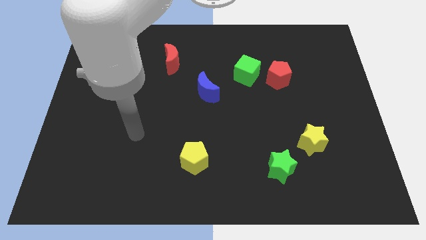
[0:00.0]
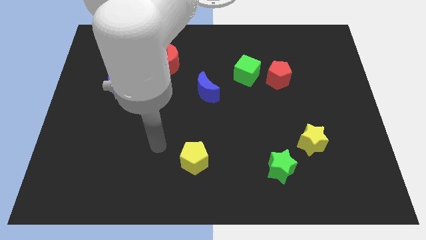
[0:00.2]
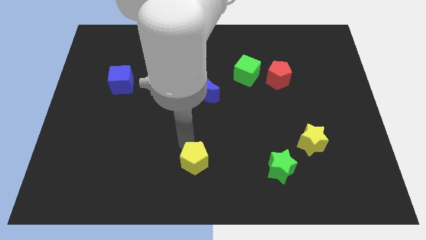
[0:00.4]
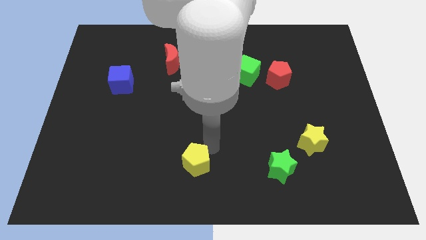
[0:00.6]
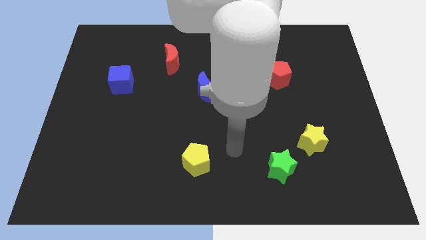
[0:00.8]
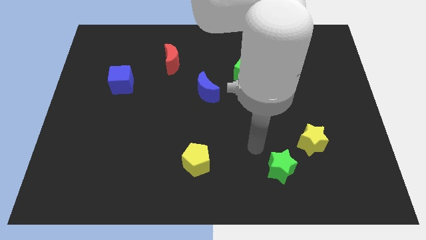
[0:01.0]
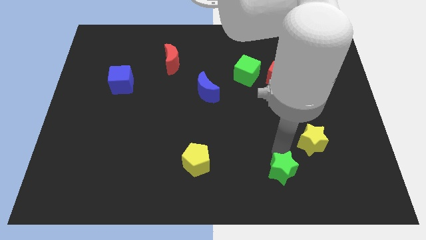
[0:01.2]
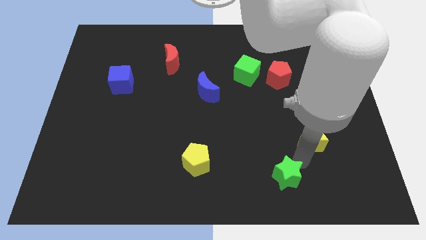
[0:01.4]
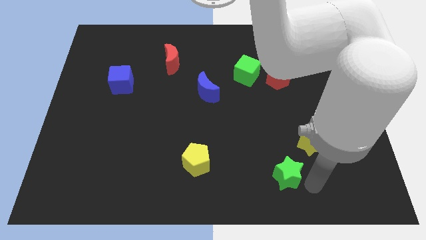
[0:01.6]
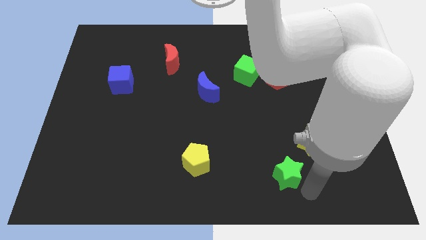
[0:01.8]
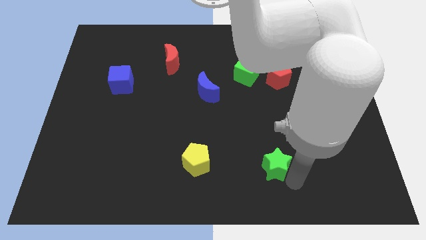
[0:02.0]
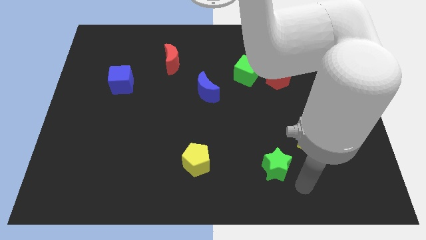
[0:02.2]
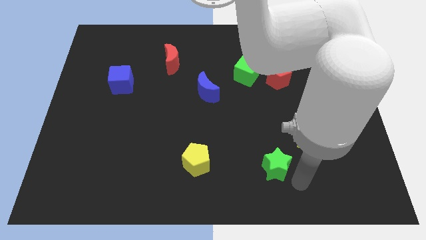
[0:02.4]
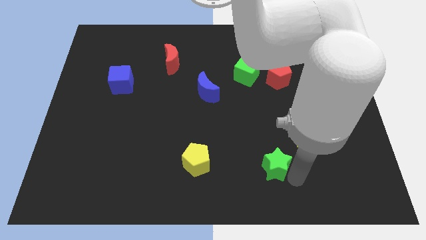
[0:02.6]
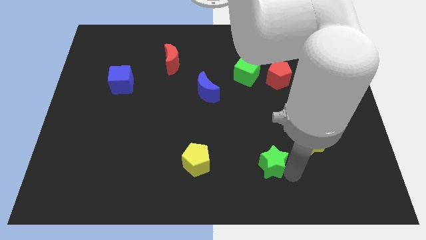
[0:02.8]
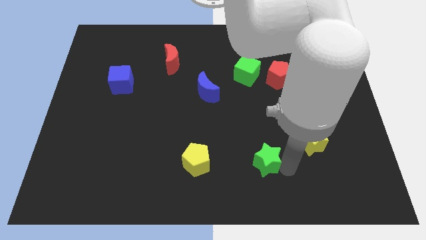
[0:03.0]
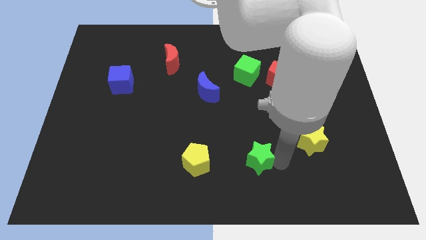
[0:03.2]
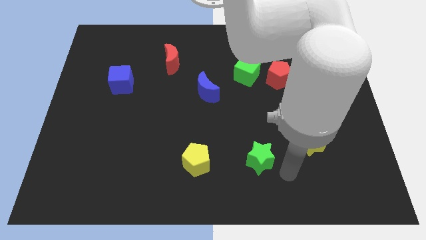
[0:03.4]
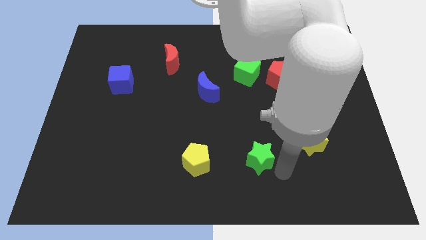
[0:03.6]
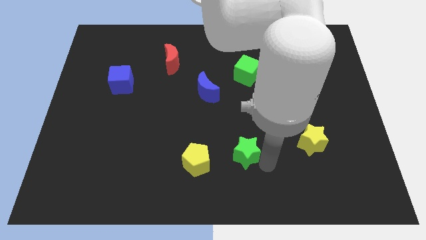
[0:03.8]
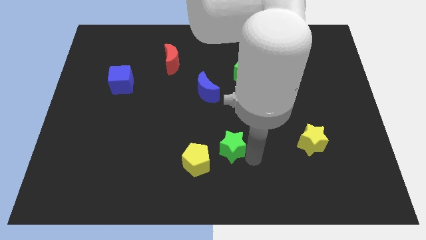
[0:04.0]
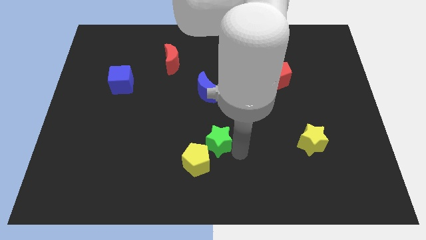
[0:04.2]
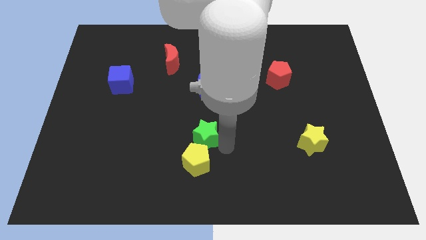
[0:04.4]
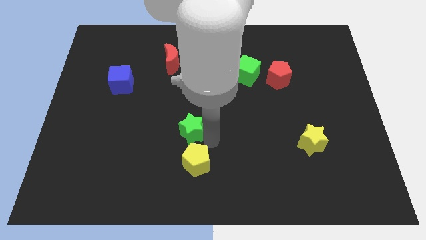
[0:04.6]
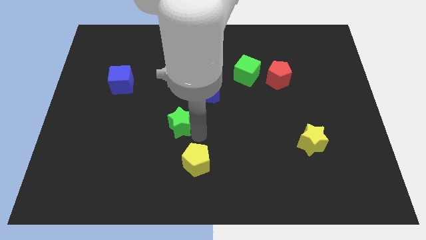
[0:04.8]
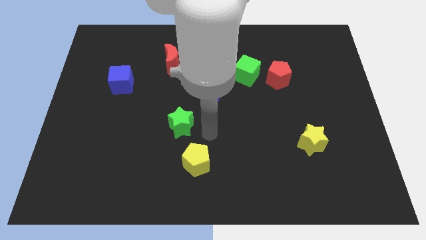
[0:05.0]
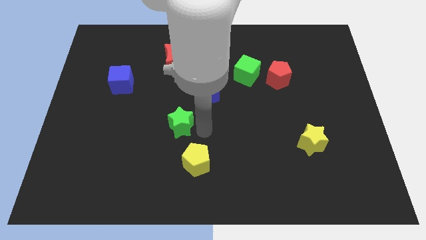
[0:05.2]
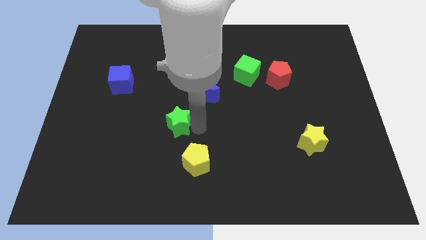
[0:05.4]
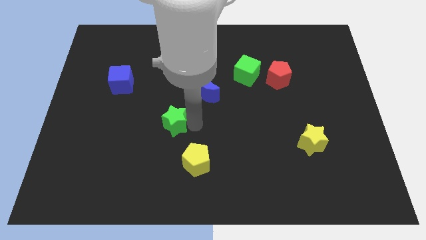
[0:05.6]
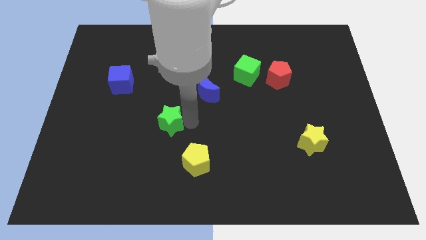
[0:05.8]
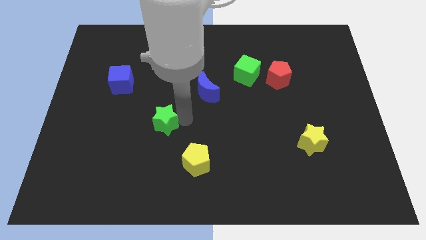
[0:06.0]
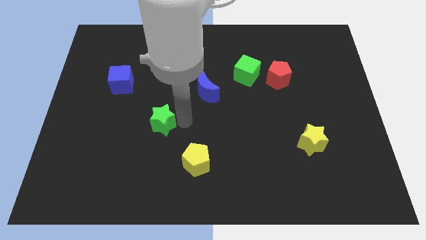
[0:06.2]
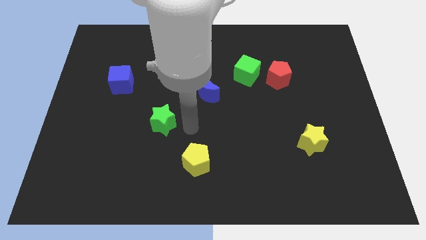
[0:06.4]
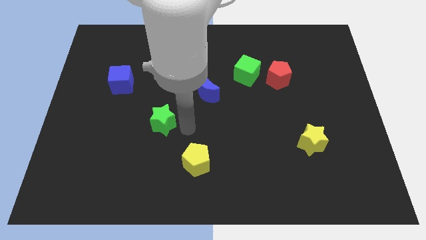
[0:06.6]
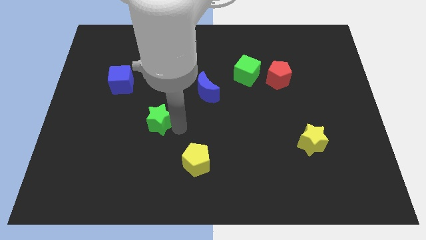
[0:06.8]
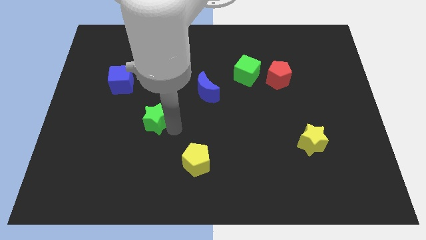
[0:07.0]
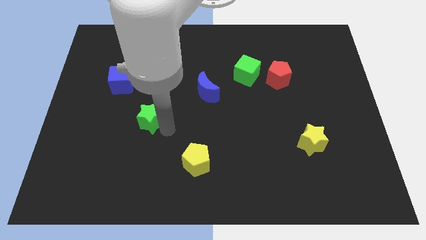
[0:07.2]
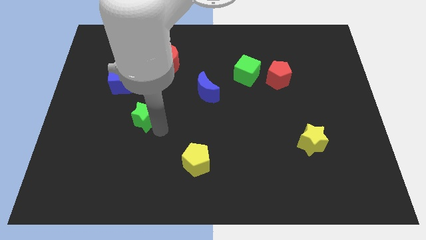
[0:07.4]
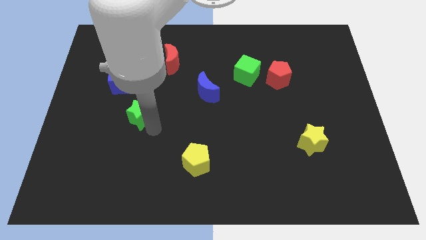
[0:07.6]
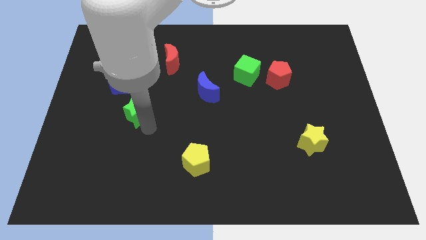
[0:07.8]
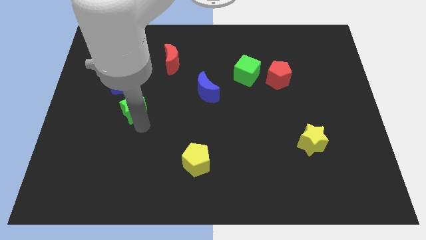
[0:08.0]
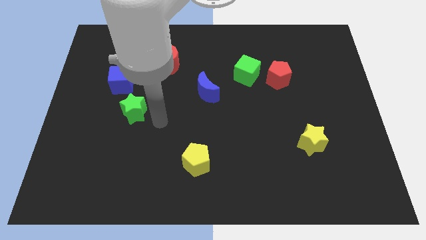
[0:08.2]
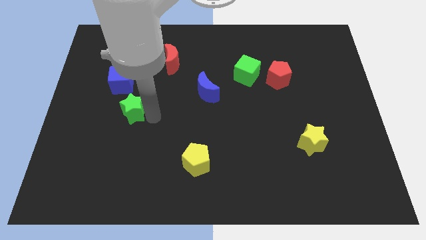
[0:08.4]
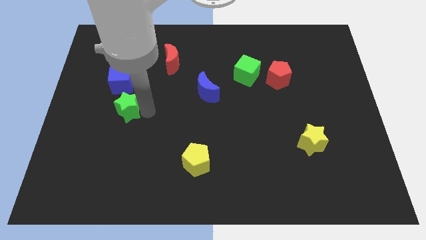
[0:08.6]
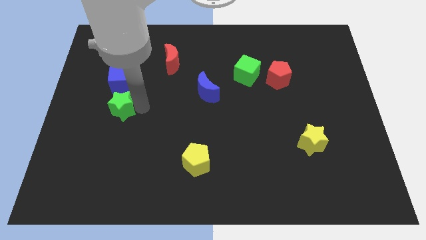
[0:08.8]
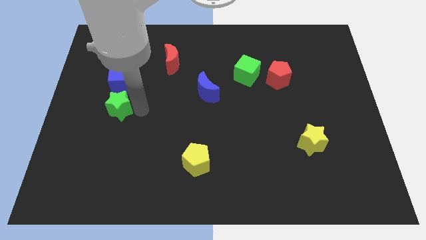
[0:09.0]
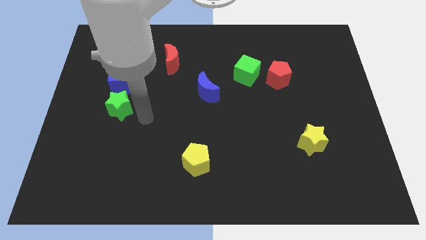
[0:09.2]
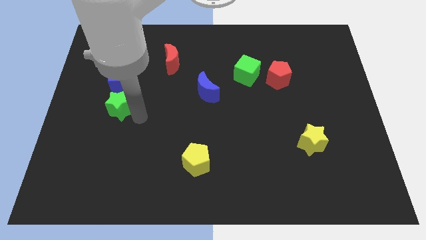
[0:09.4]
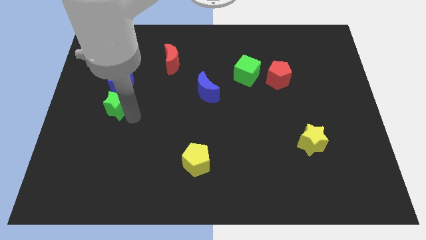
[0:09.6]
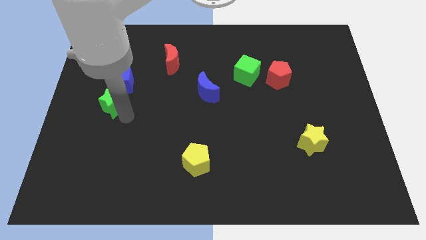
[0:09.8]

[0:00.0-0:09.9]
push the green star diagonally down and to the left of the blue cube

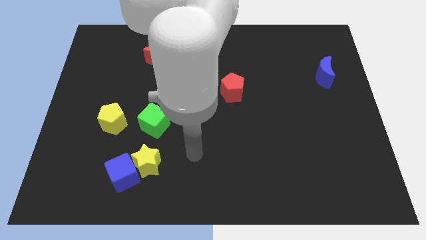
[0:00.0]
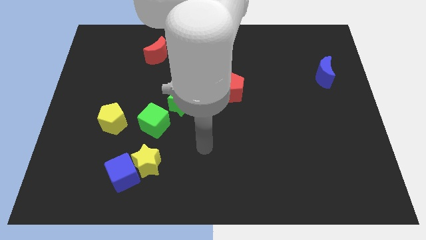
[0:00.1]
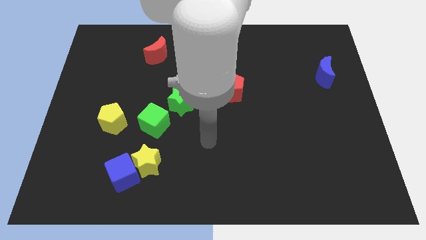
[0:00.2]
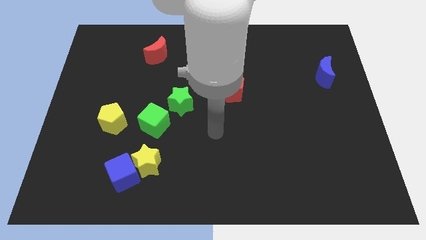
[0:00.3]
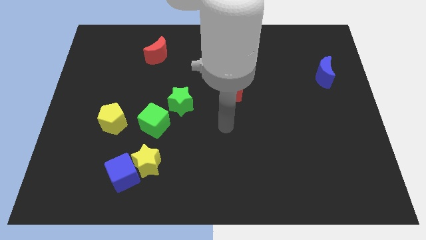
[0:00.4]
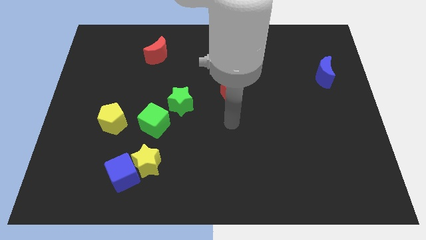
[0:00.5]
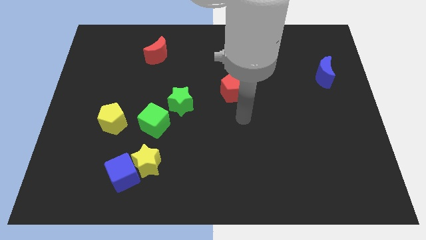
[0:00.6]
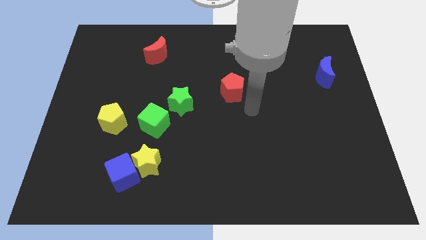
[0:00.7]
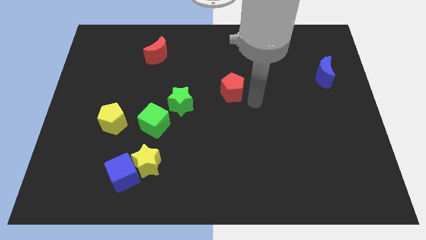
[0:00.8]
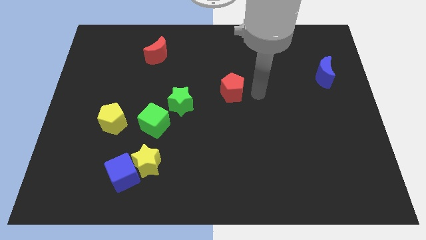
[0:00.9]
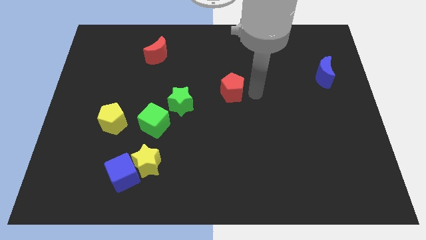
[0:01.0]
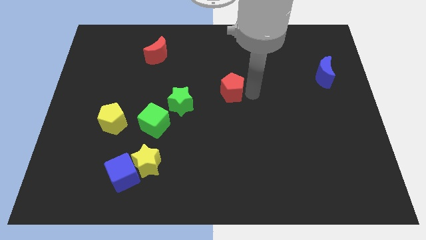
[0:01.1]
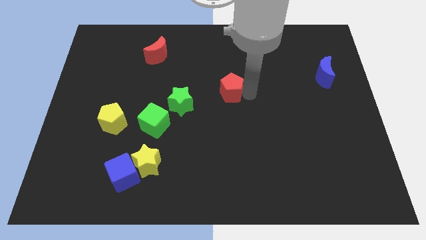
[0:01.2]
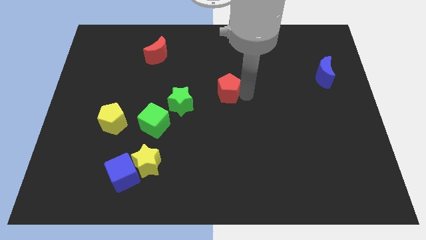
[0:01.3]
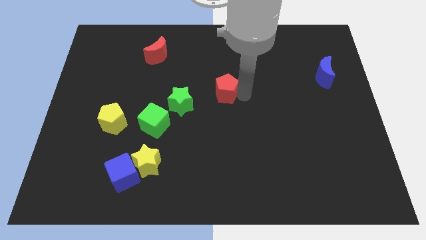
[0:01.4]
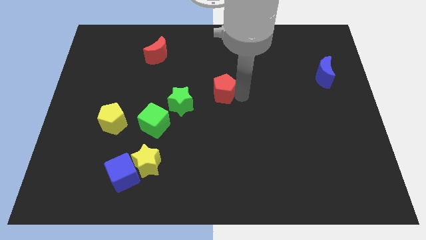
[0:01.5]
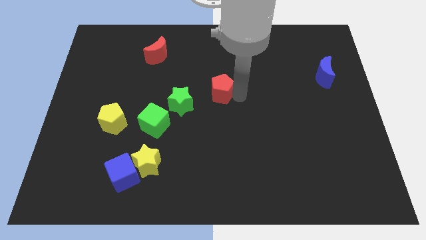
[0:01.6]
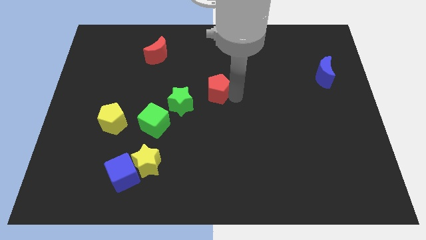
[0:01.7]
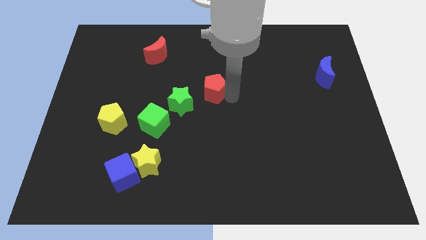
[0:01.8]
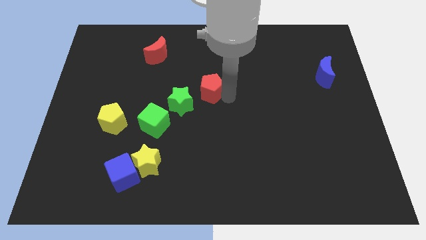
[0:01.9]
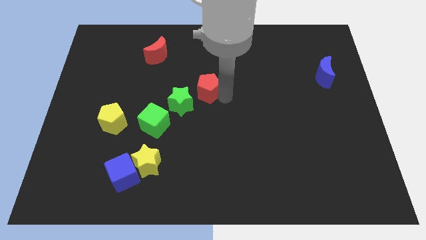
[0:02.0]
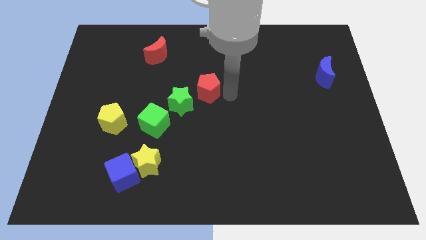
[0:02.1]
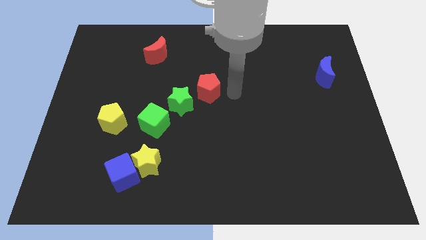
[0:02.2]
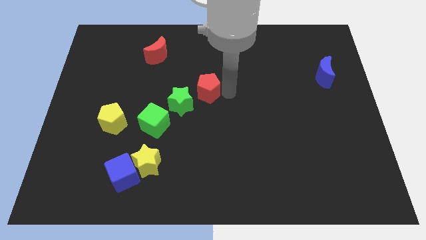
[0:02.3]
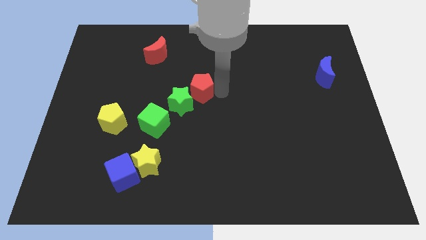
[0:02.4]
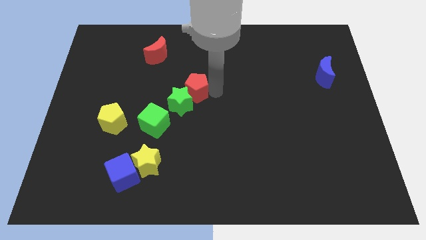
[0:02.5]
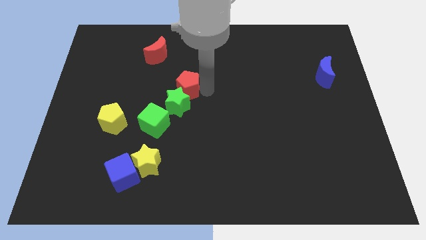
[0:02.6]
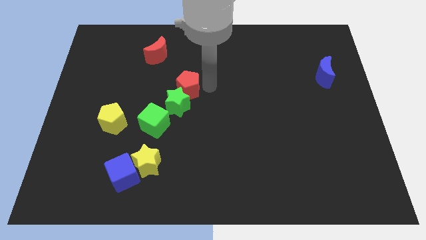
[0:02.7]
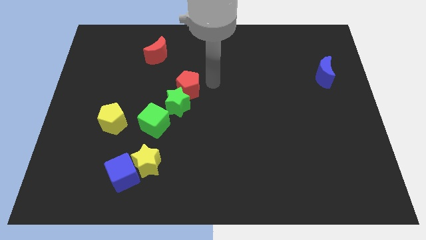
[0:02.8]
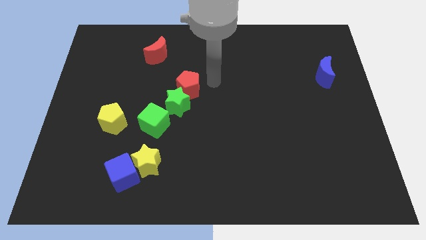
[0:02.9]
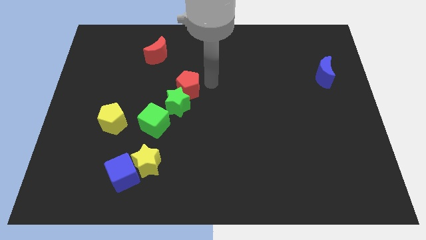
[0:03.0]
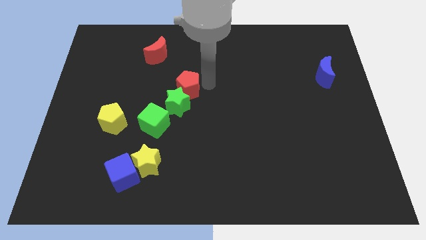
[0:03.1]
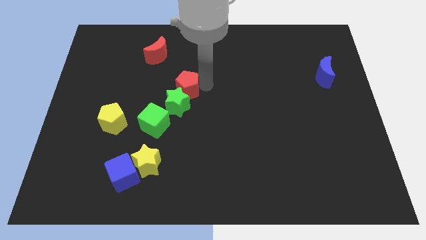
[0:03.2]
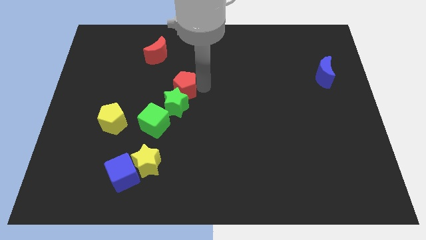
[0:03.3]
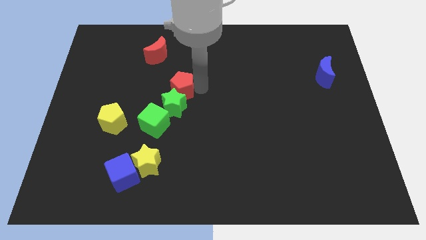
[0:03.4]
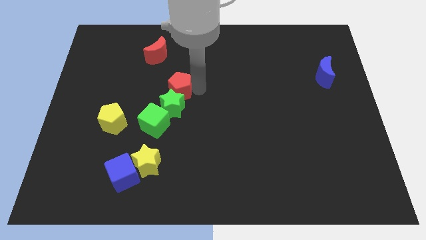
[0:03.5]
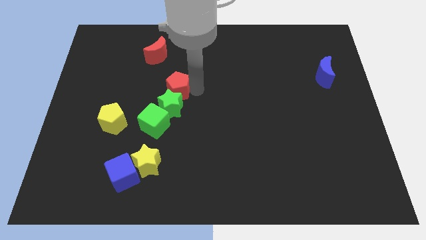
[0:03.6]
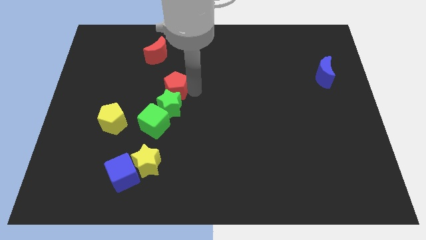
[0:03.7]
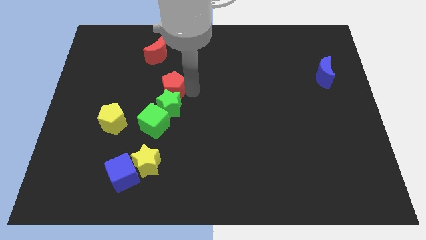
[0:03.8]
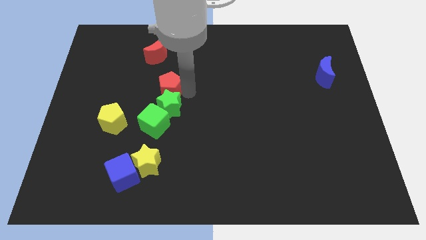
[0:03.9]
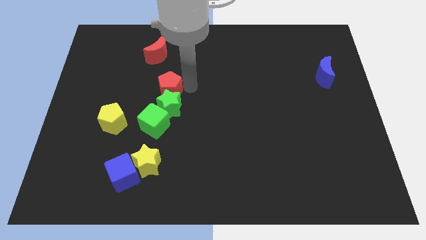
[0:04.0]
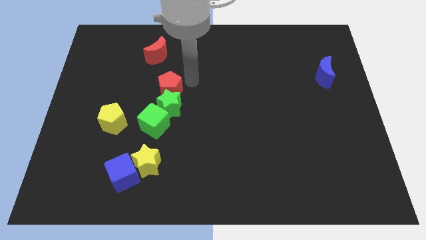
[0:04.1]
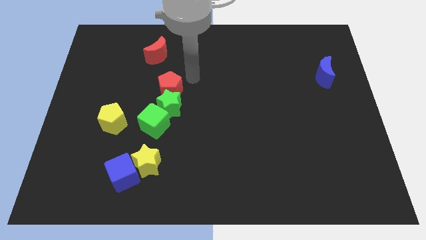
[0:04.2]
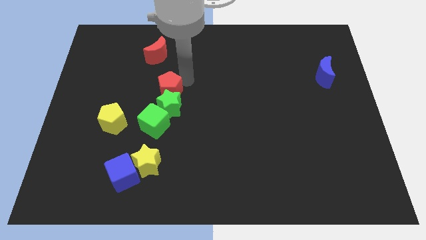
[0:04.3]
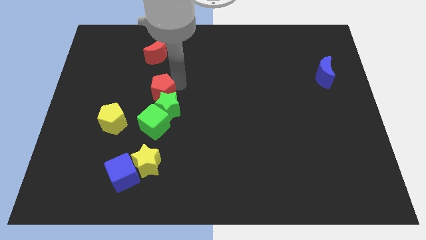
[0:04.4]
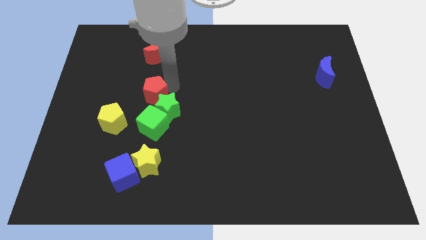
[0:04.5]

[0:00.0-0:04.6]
move the red pentagon diagonally up and to the right of the yellow pentagon
